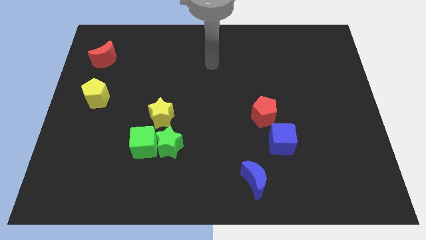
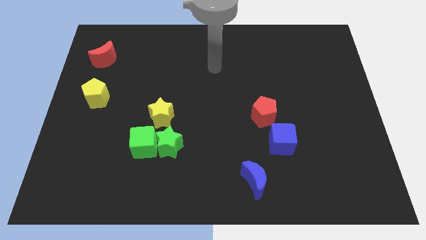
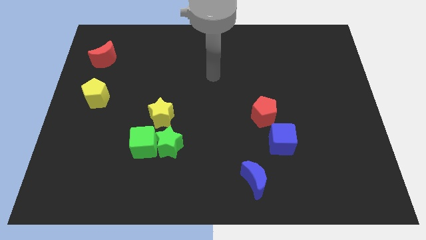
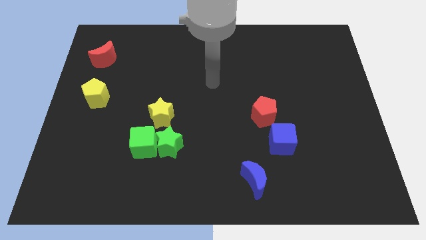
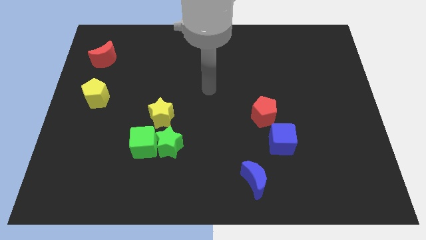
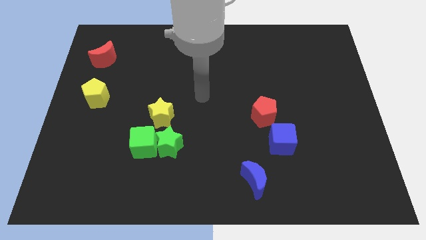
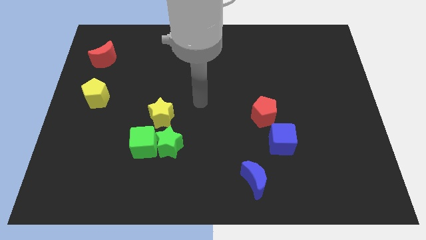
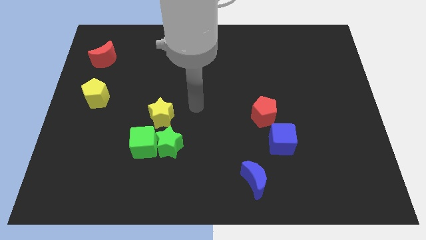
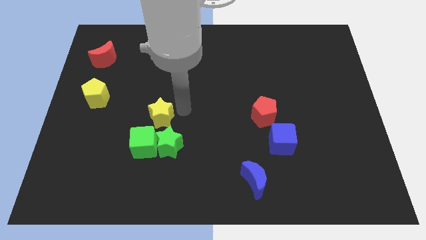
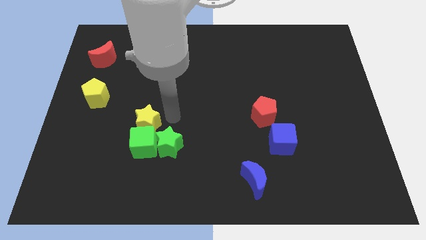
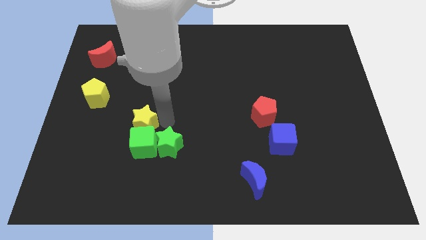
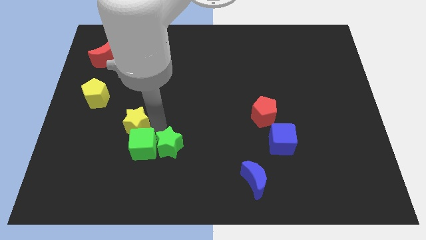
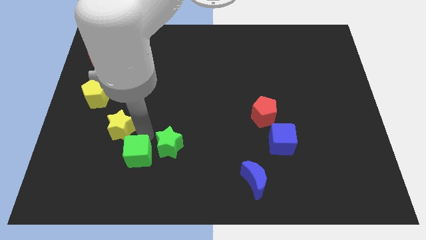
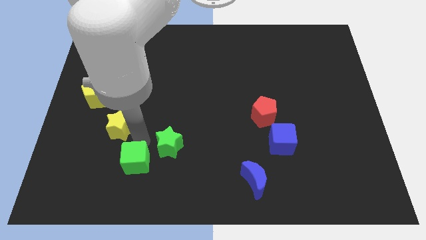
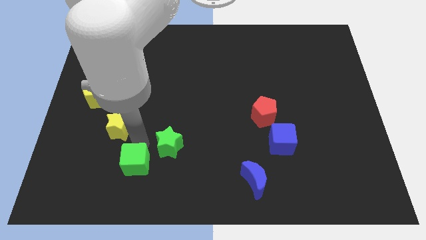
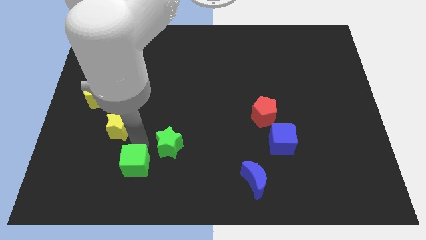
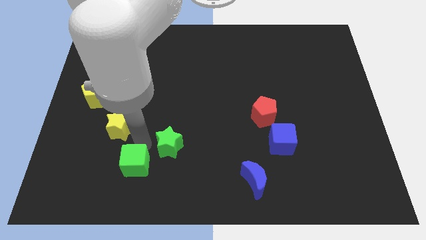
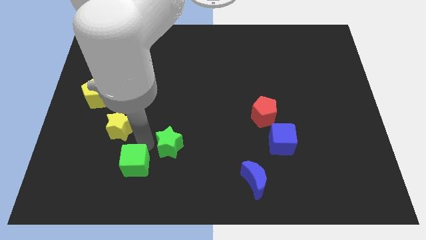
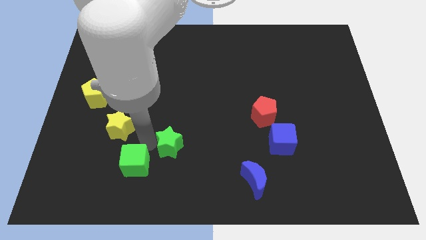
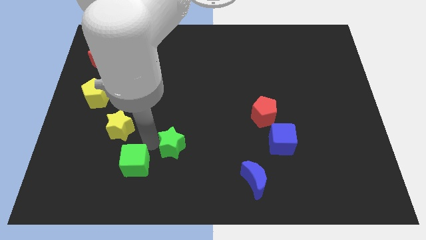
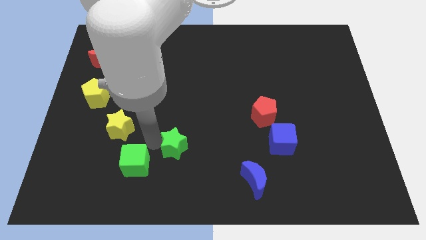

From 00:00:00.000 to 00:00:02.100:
move the green star away from the green cube and yellow star

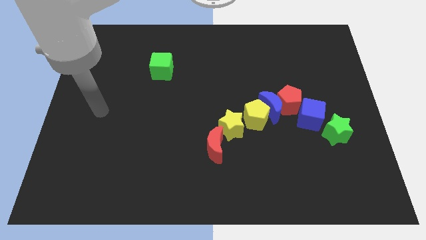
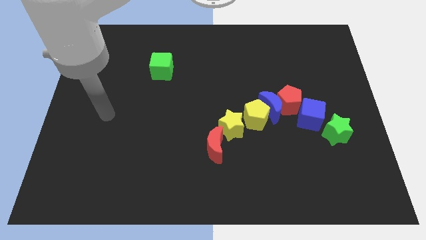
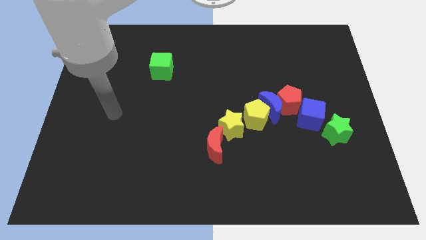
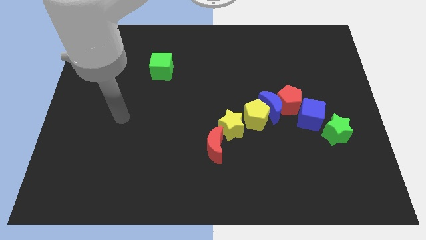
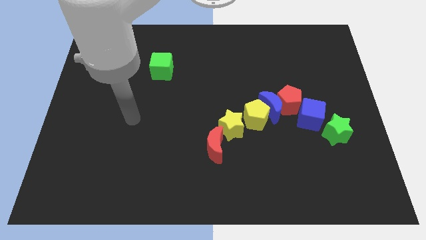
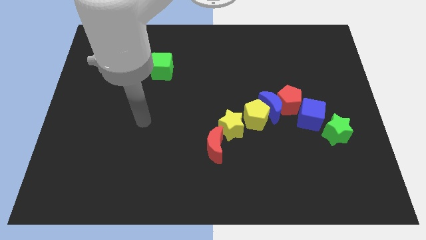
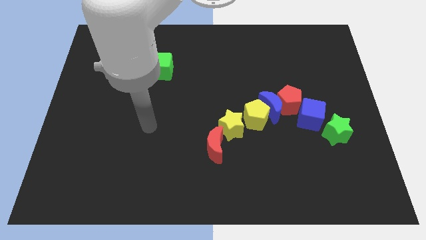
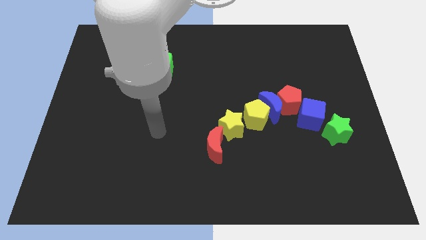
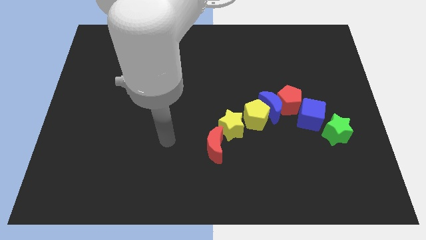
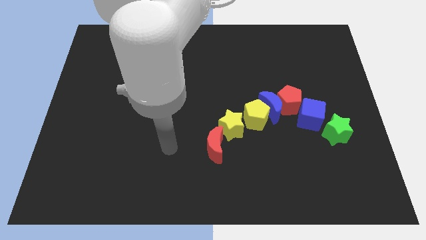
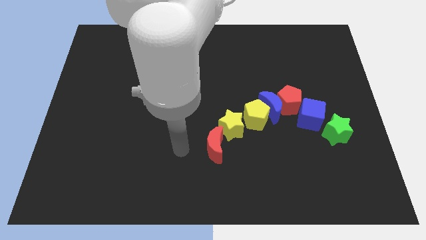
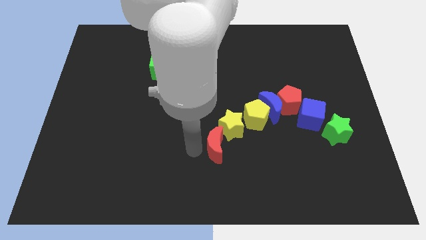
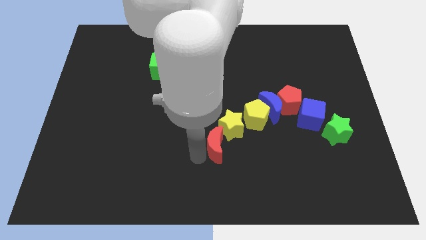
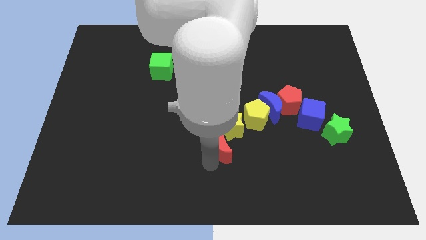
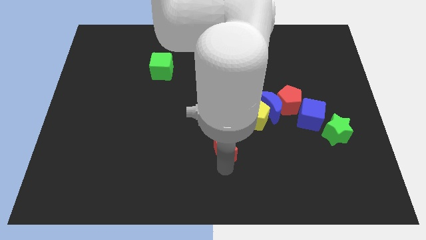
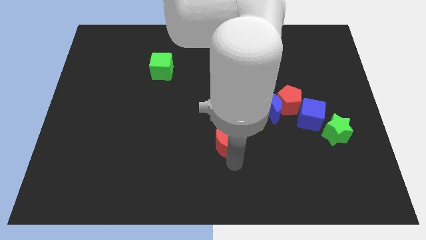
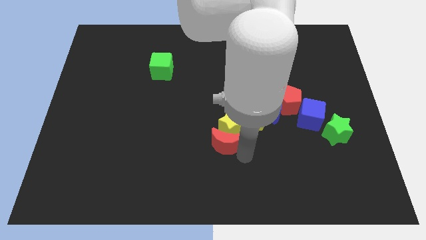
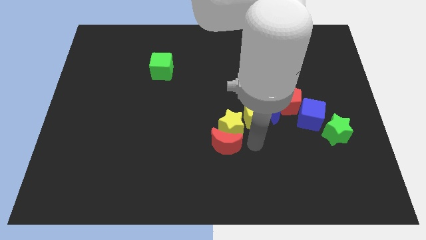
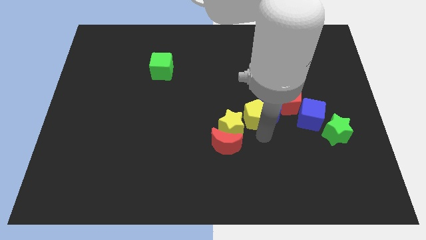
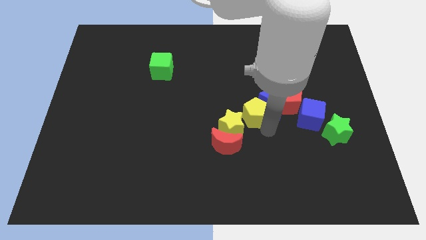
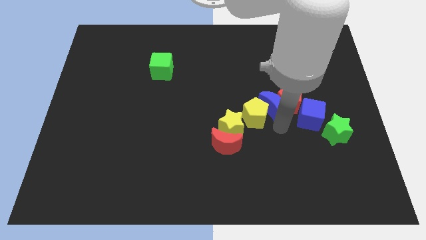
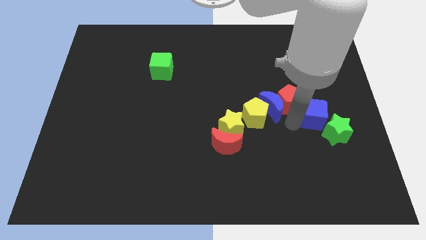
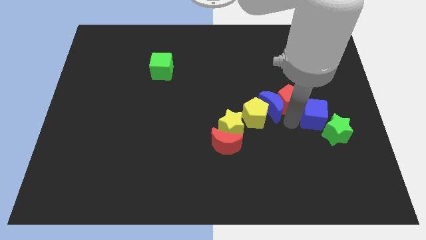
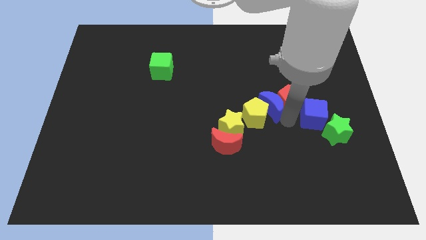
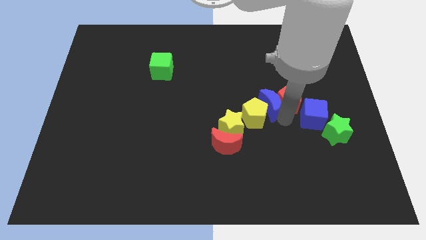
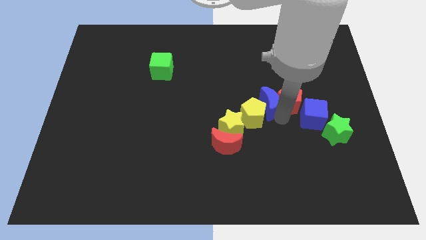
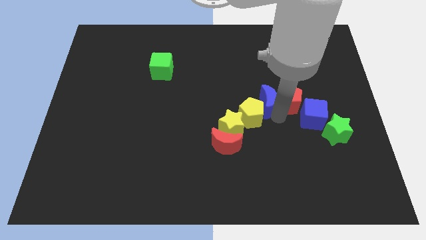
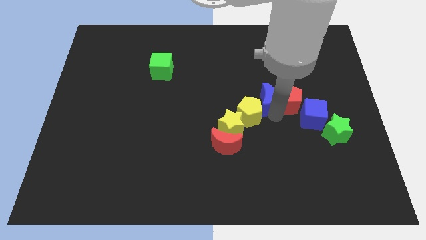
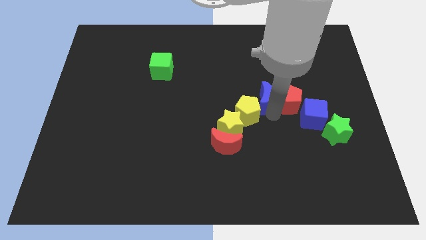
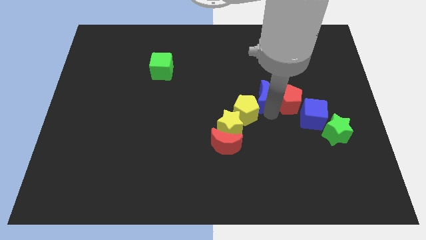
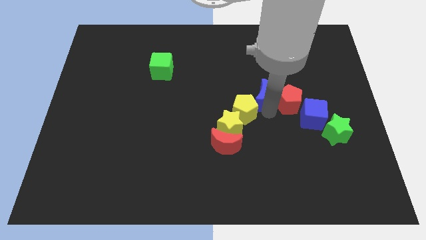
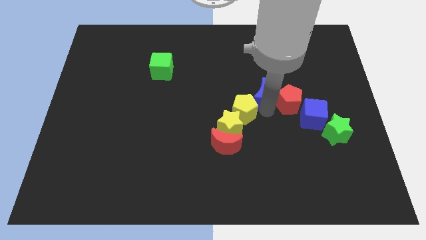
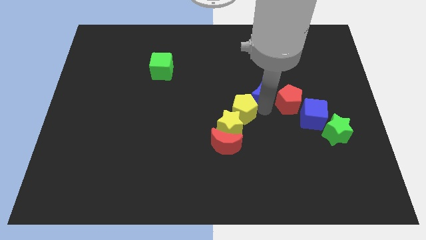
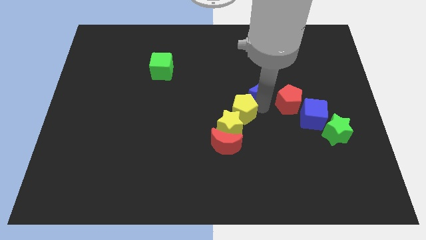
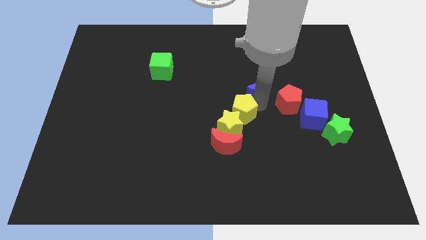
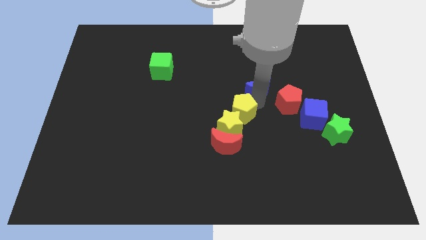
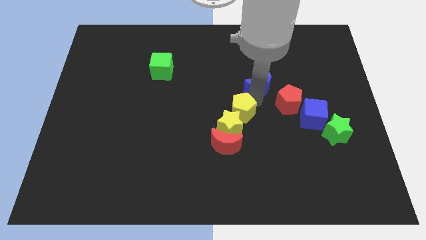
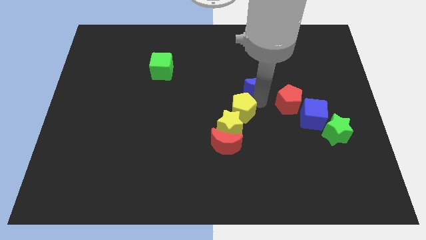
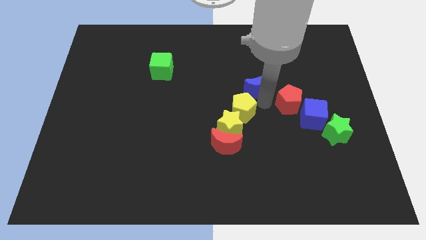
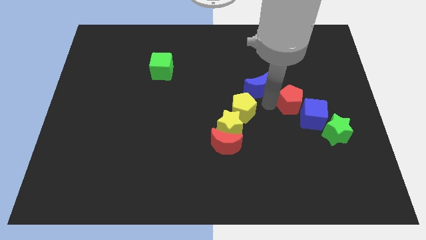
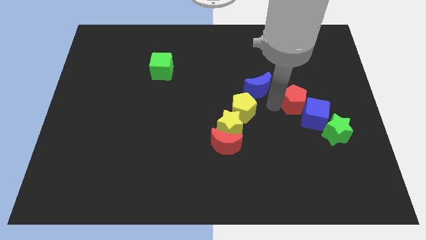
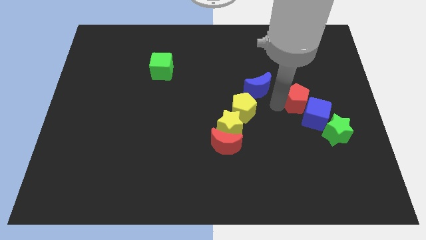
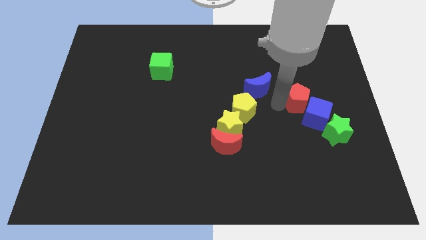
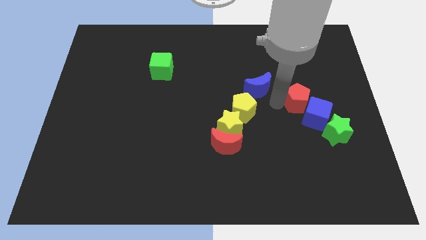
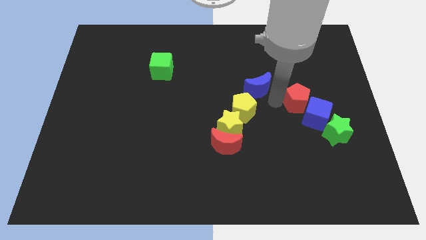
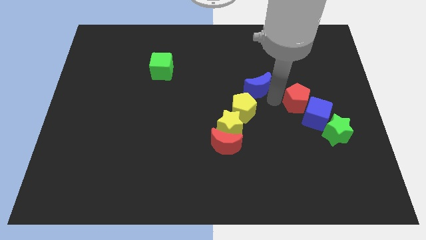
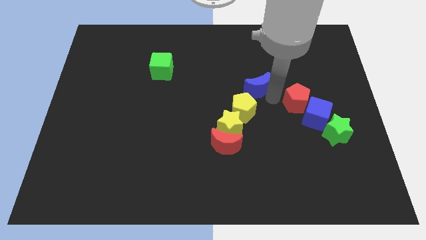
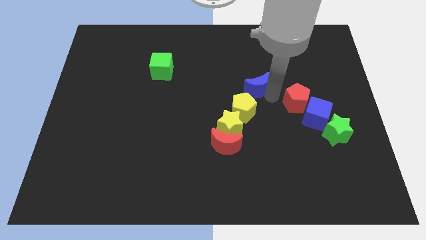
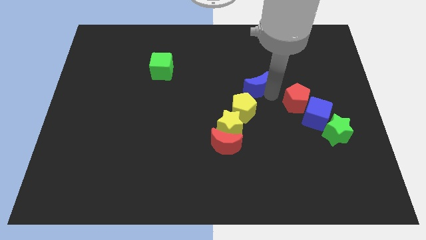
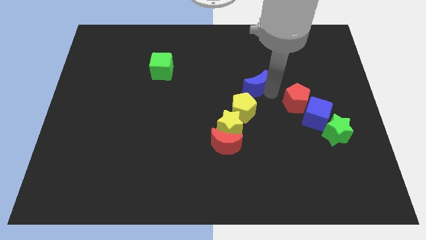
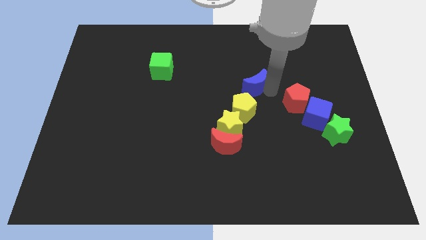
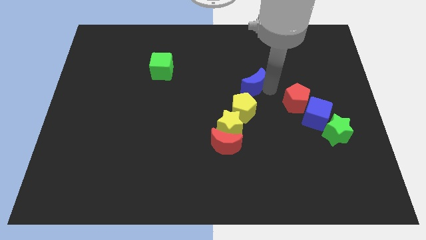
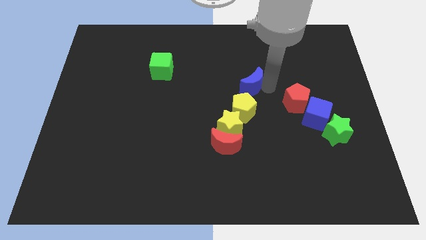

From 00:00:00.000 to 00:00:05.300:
move the blue moon away from the group of blocks

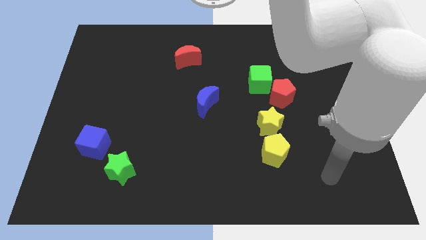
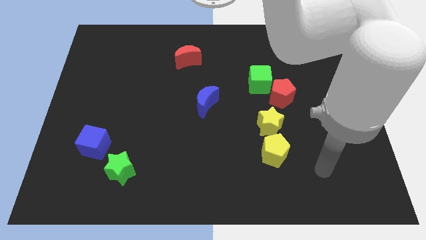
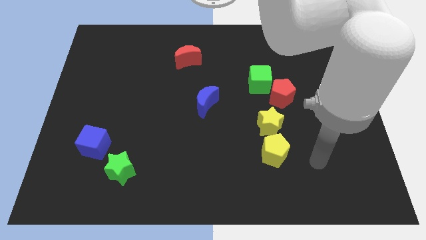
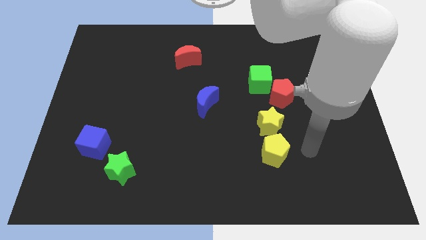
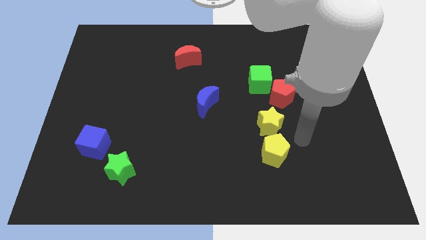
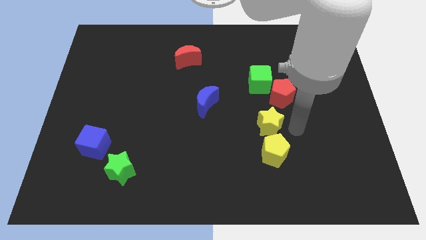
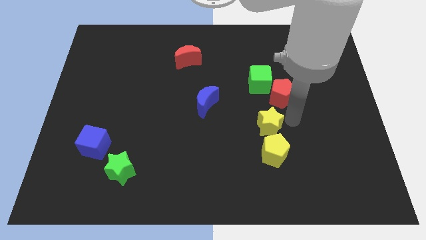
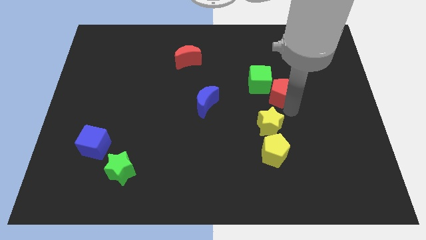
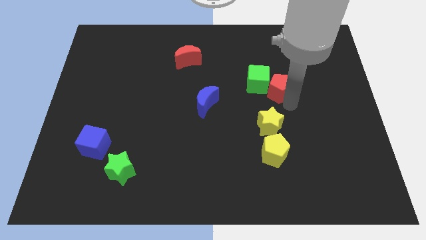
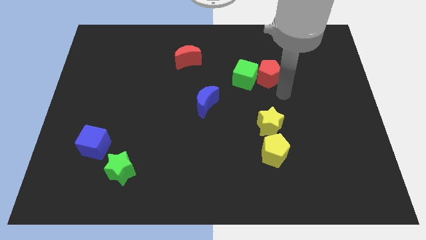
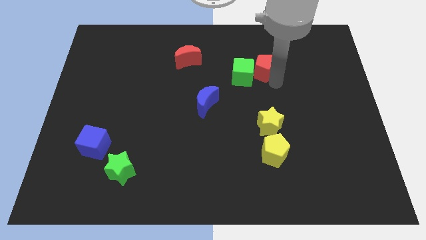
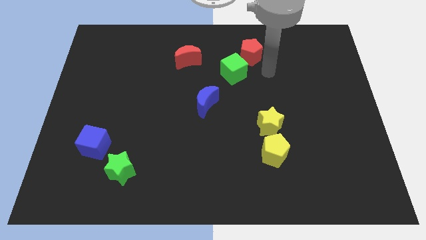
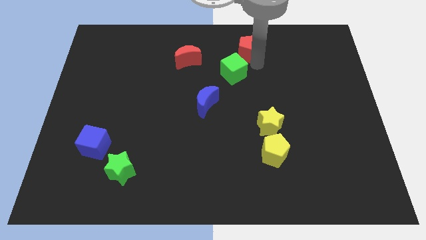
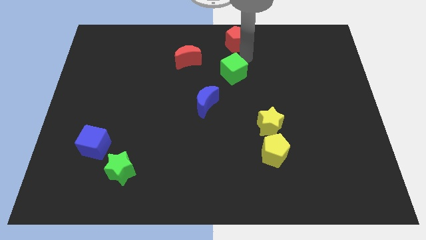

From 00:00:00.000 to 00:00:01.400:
pull the green cube apart from the red pentagon

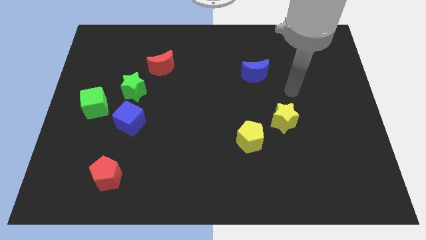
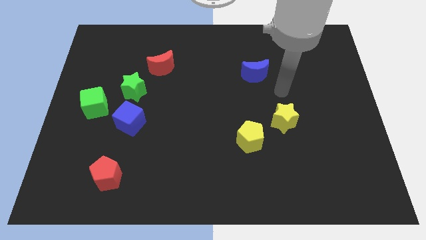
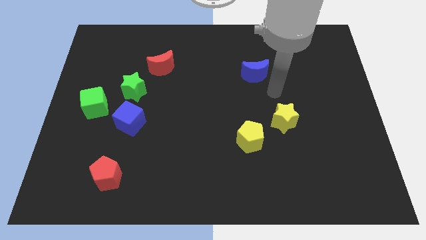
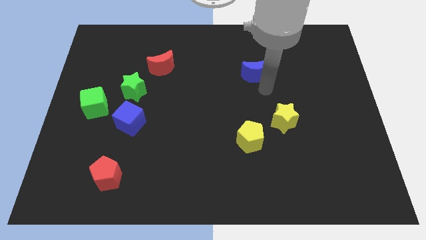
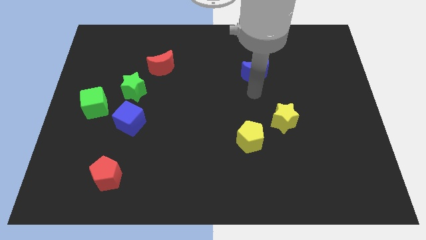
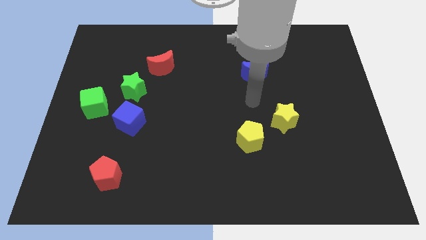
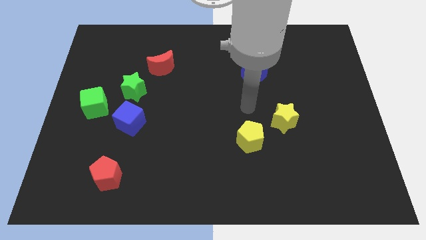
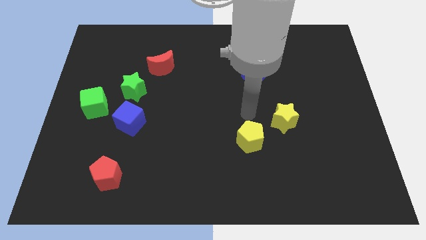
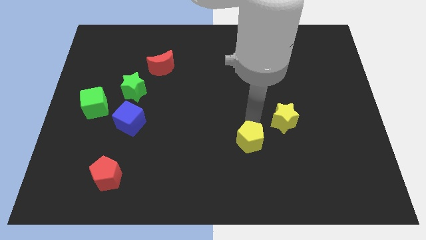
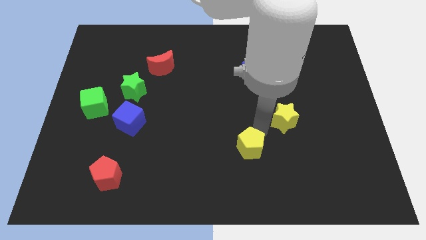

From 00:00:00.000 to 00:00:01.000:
separate the yellow star from the yellow pentagon
